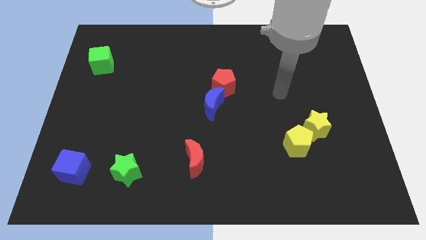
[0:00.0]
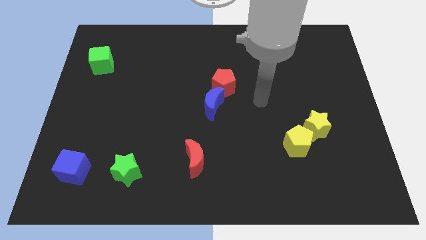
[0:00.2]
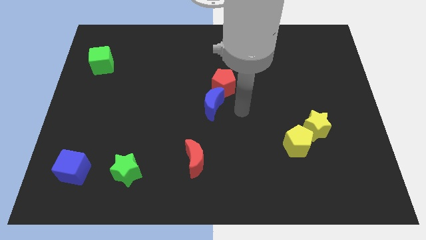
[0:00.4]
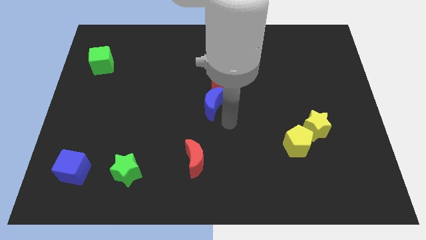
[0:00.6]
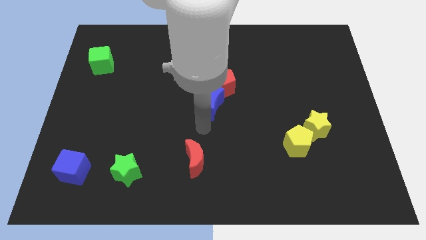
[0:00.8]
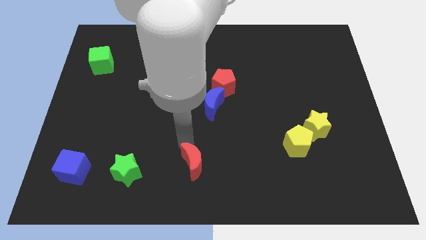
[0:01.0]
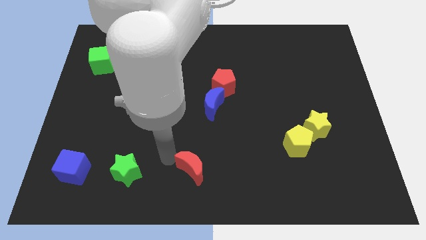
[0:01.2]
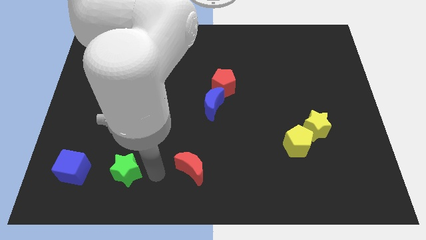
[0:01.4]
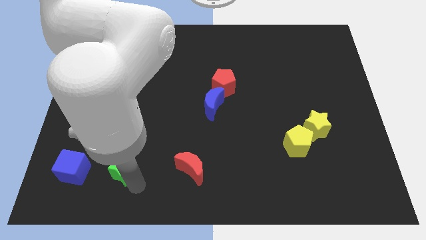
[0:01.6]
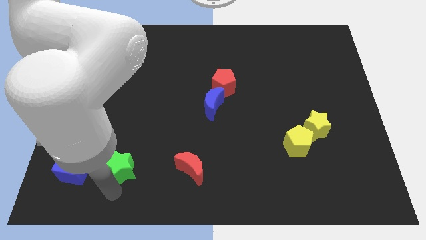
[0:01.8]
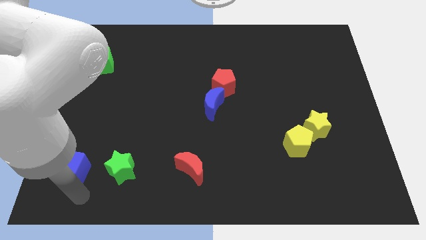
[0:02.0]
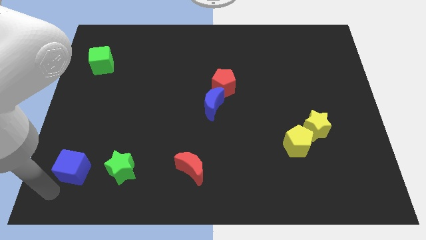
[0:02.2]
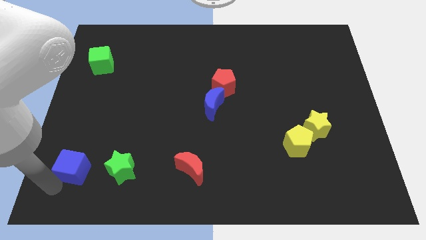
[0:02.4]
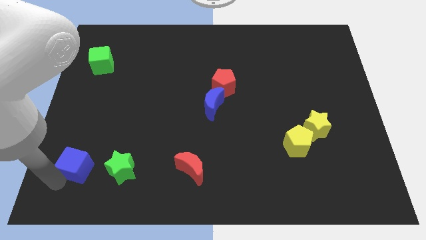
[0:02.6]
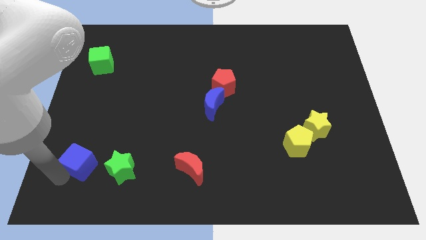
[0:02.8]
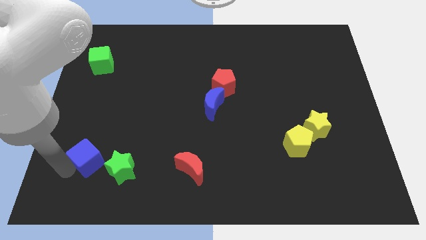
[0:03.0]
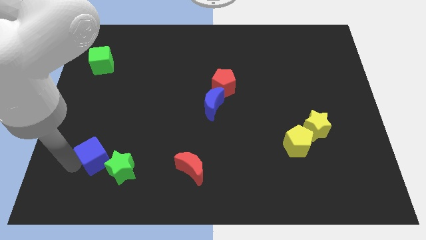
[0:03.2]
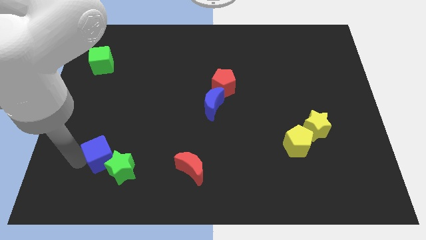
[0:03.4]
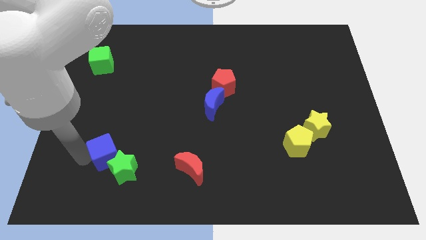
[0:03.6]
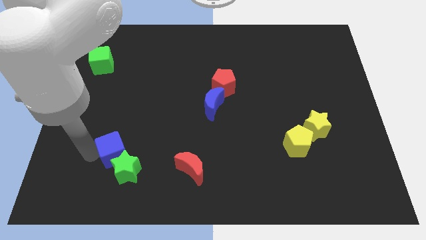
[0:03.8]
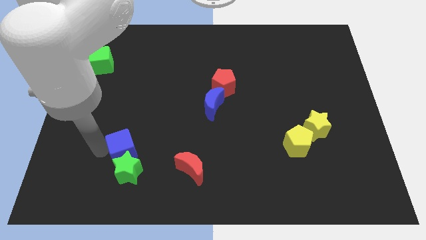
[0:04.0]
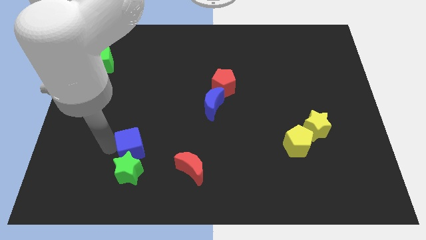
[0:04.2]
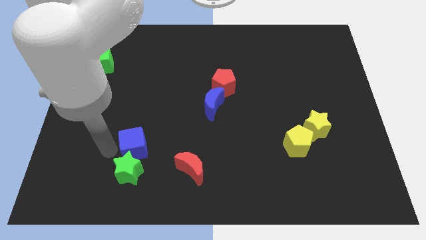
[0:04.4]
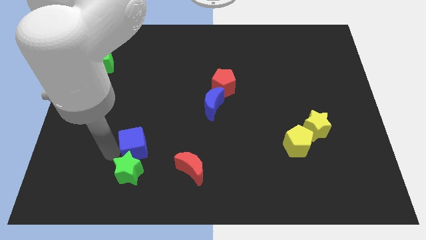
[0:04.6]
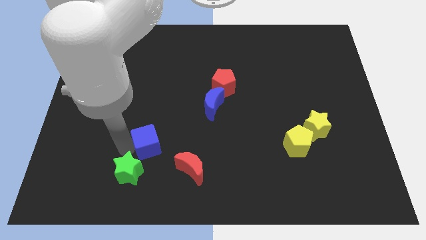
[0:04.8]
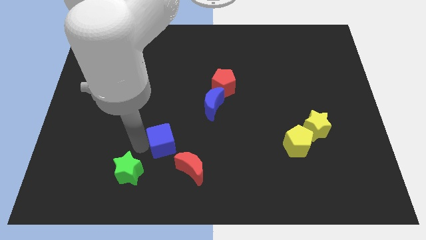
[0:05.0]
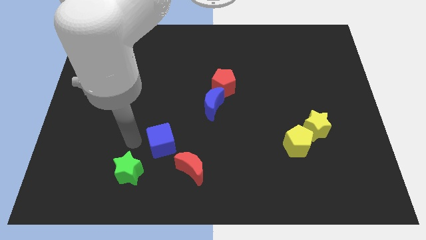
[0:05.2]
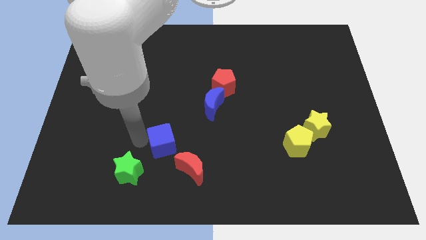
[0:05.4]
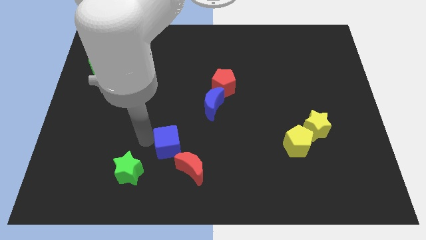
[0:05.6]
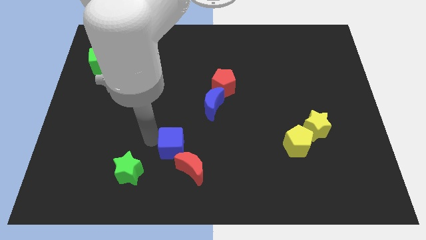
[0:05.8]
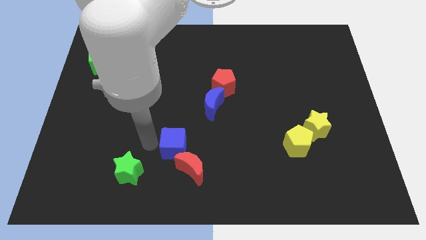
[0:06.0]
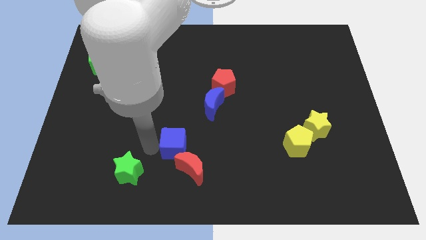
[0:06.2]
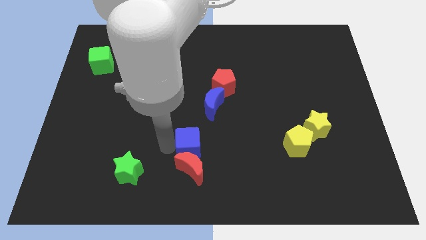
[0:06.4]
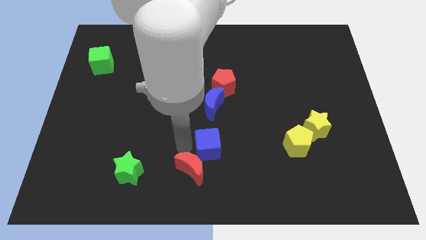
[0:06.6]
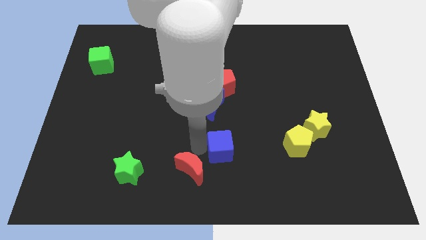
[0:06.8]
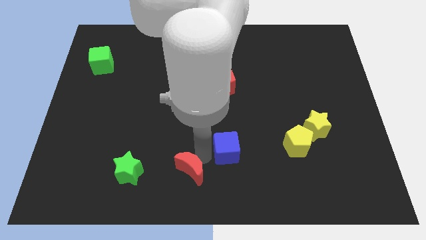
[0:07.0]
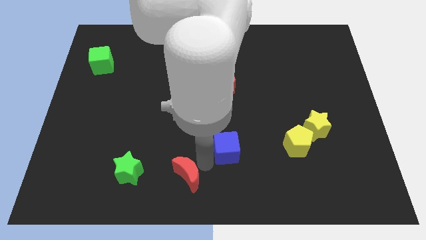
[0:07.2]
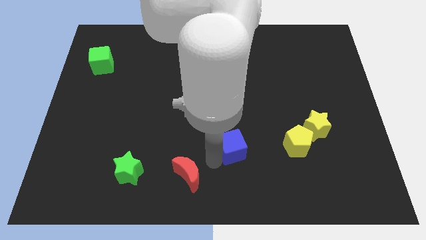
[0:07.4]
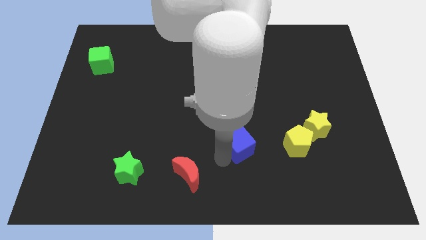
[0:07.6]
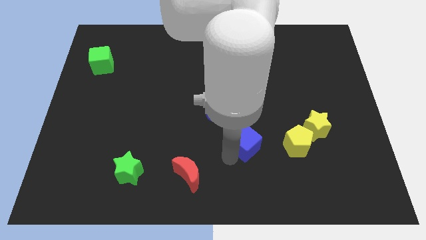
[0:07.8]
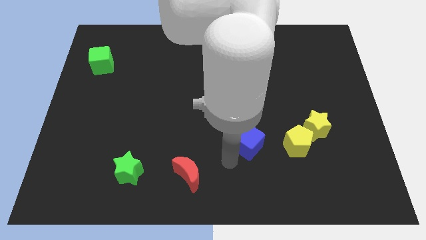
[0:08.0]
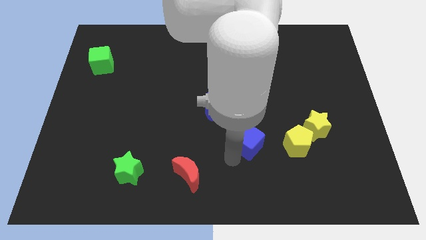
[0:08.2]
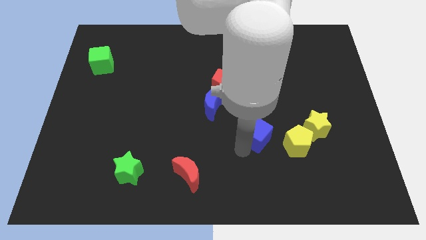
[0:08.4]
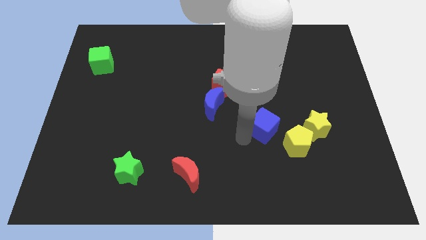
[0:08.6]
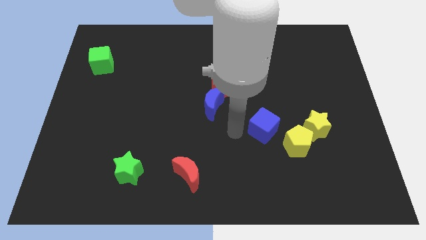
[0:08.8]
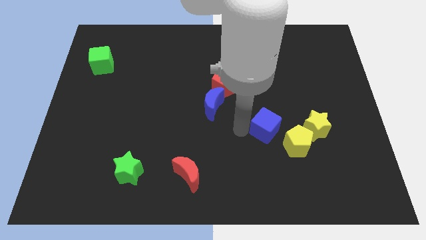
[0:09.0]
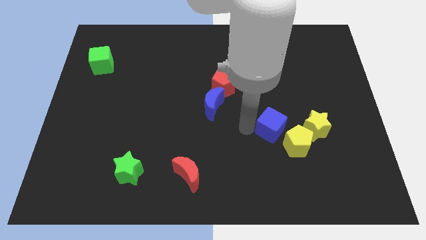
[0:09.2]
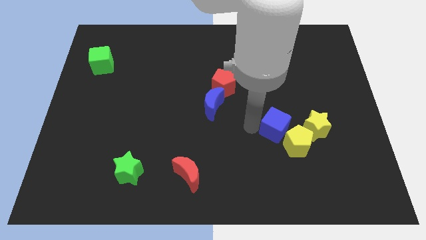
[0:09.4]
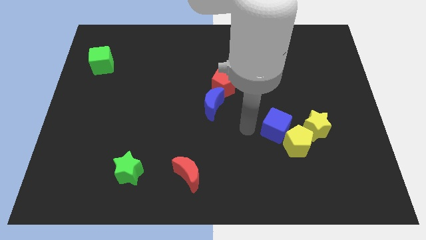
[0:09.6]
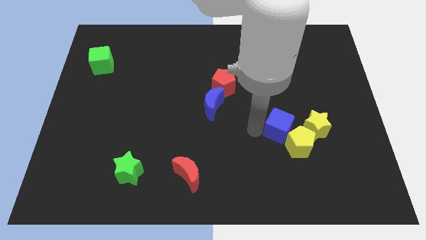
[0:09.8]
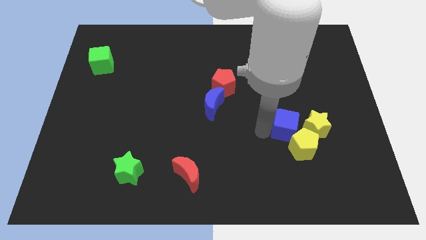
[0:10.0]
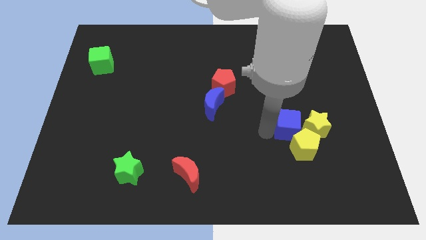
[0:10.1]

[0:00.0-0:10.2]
move the blue cube towards the yellow star
